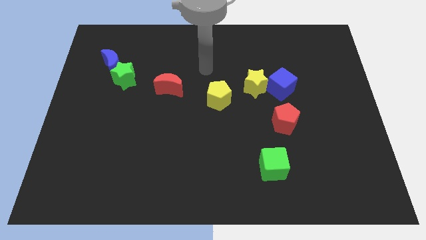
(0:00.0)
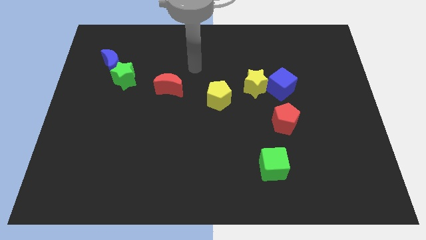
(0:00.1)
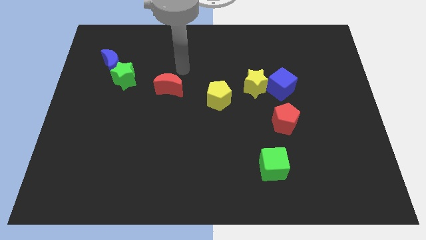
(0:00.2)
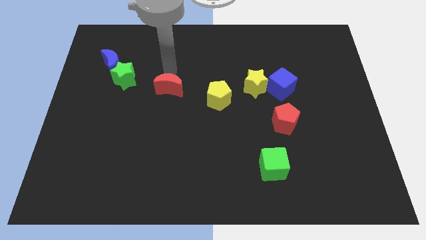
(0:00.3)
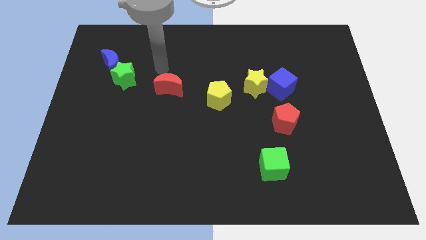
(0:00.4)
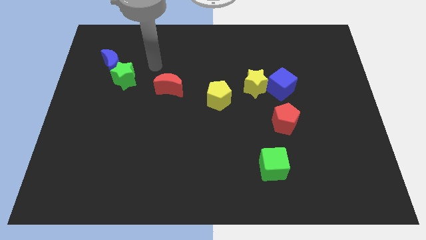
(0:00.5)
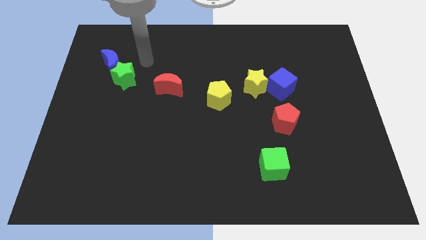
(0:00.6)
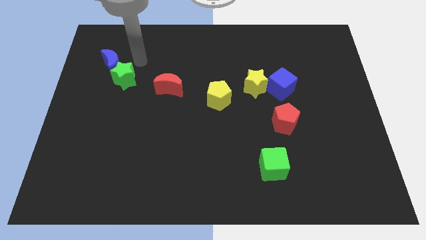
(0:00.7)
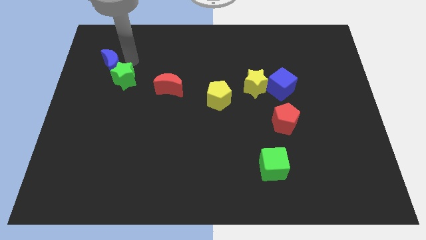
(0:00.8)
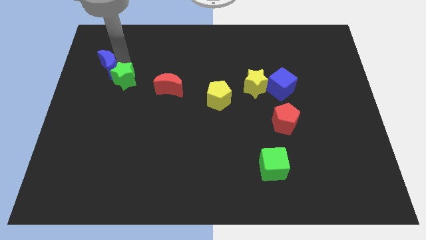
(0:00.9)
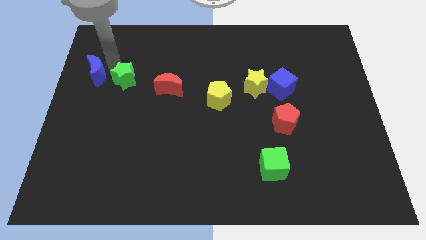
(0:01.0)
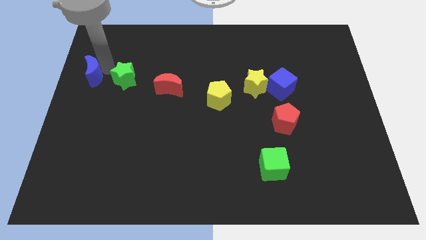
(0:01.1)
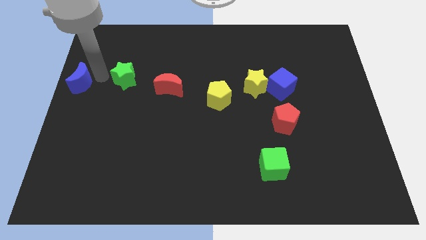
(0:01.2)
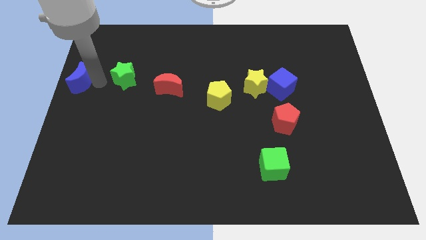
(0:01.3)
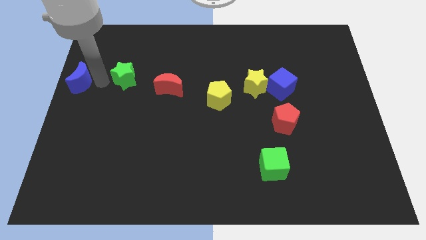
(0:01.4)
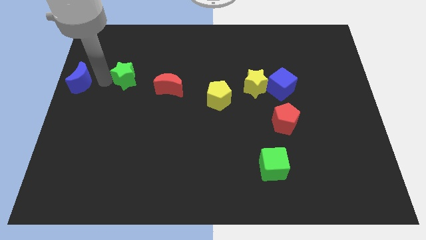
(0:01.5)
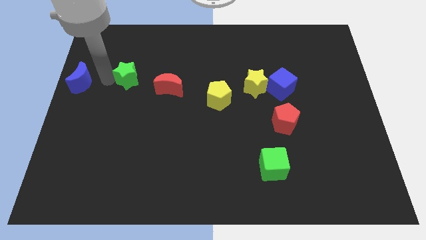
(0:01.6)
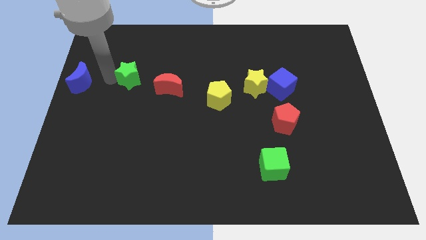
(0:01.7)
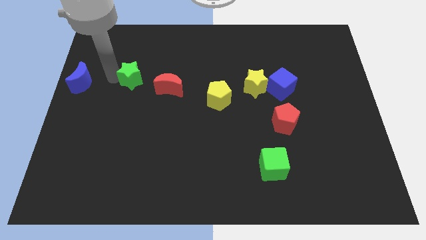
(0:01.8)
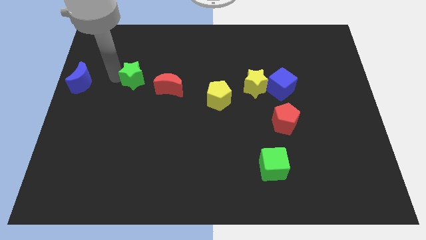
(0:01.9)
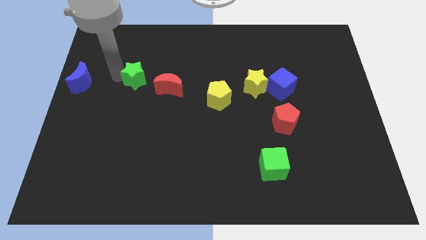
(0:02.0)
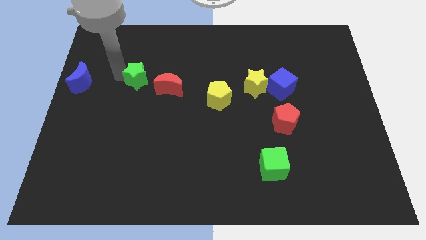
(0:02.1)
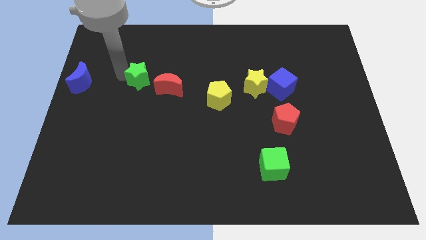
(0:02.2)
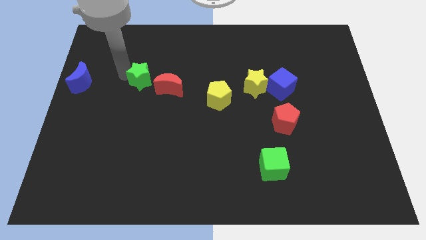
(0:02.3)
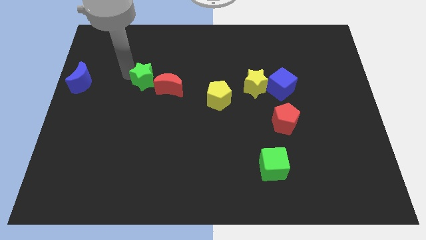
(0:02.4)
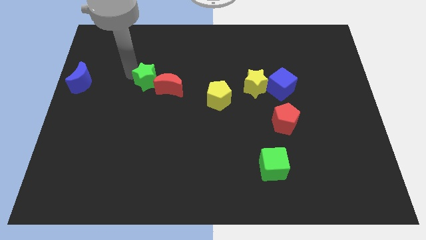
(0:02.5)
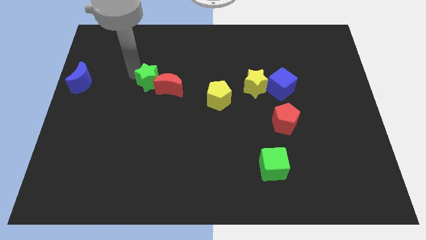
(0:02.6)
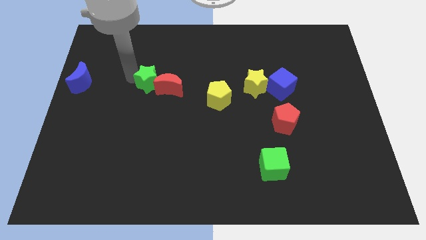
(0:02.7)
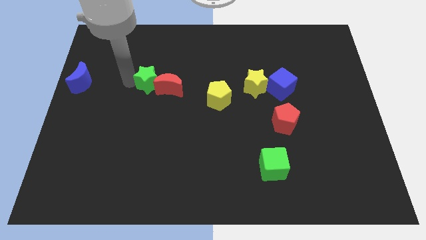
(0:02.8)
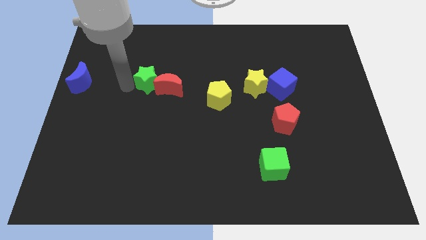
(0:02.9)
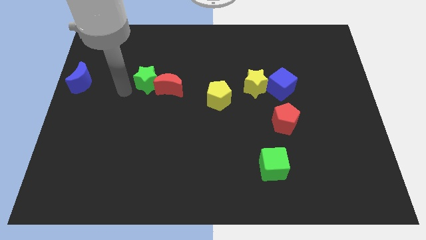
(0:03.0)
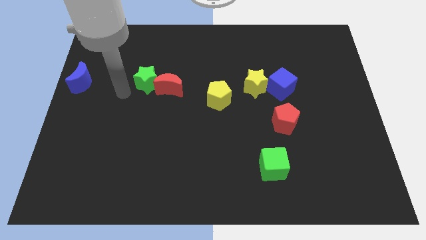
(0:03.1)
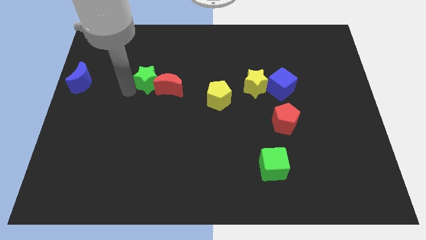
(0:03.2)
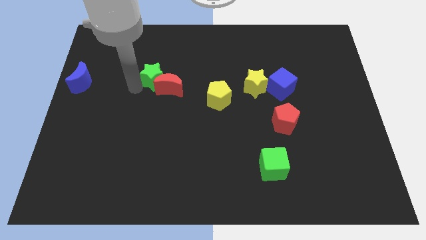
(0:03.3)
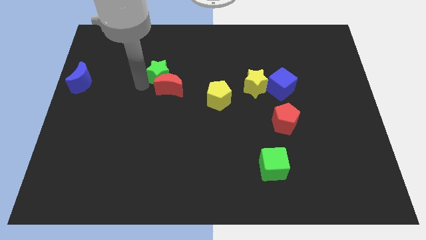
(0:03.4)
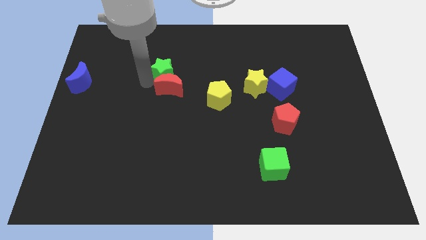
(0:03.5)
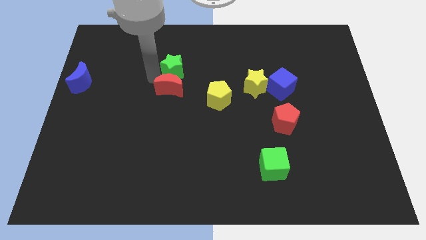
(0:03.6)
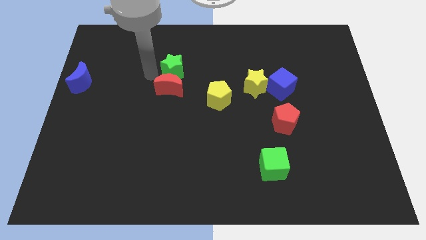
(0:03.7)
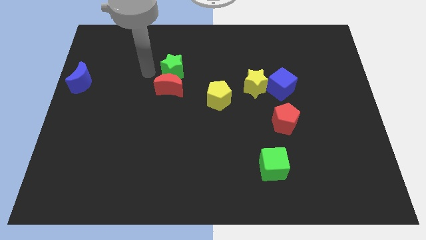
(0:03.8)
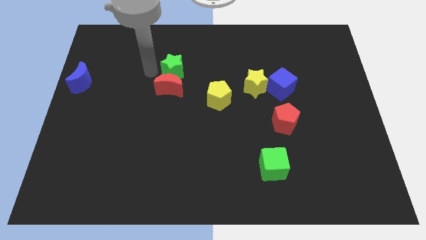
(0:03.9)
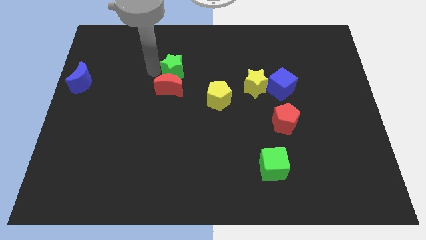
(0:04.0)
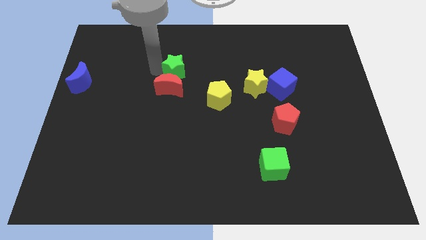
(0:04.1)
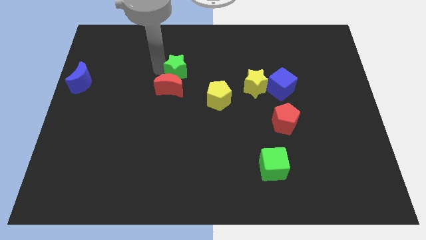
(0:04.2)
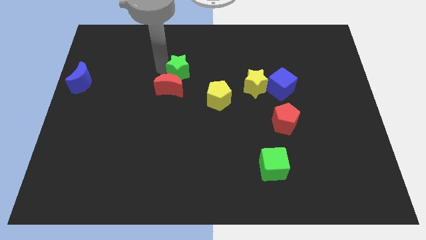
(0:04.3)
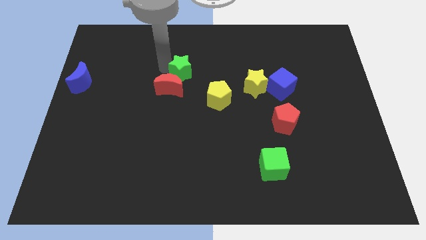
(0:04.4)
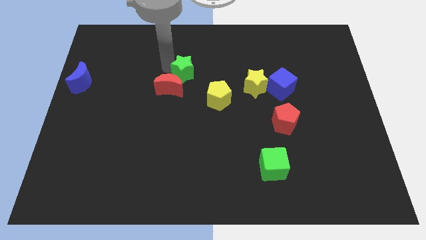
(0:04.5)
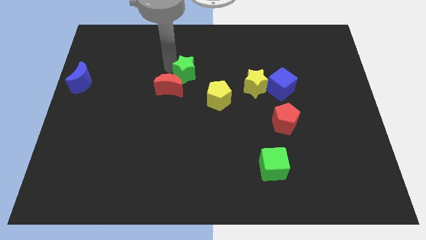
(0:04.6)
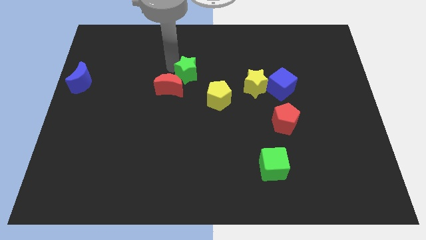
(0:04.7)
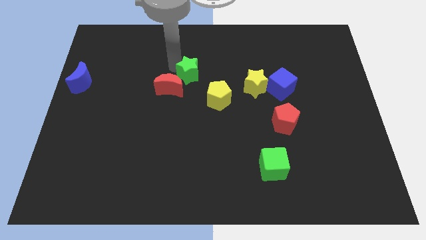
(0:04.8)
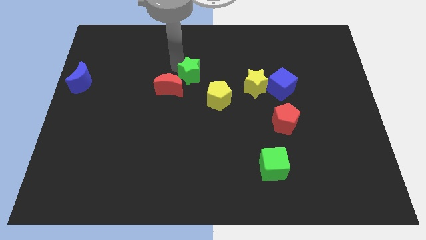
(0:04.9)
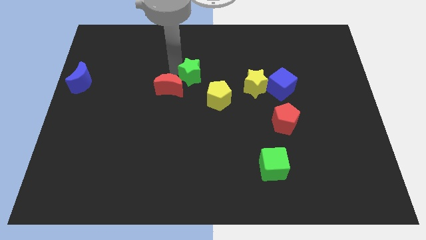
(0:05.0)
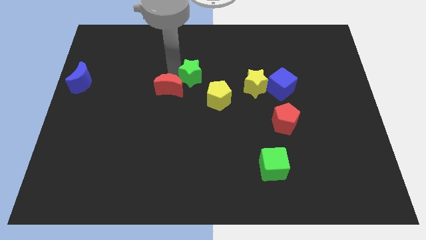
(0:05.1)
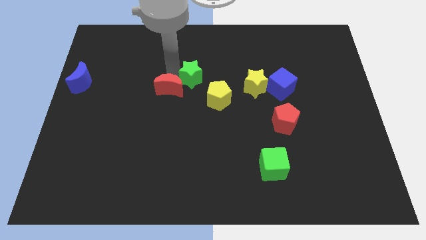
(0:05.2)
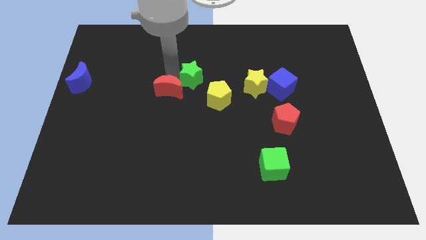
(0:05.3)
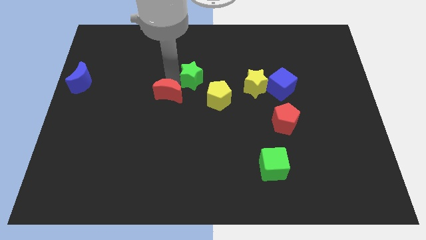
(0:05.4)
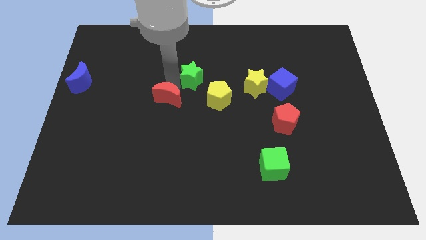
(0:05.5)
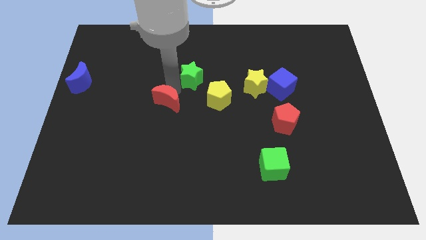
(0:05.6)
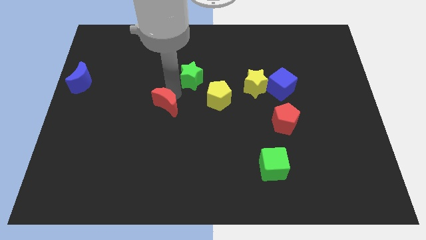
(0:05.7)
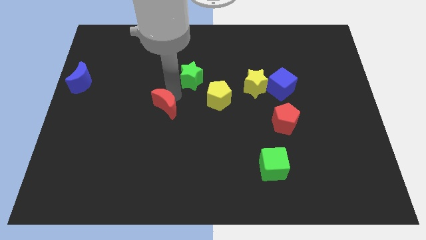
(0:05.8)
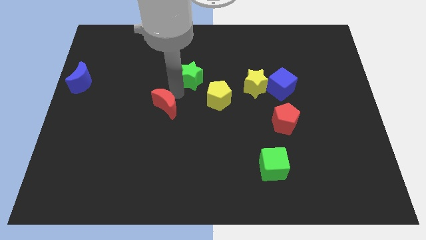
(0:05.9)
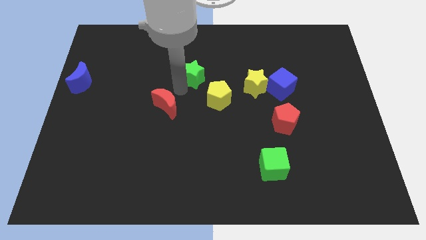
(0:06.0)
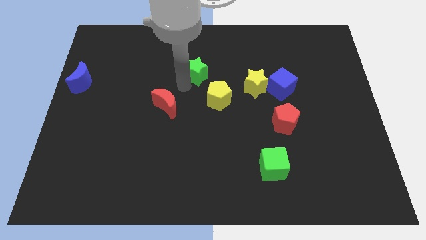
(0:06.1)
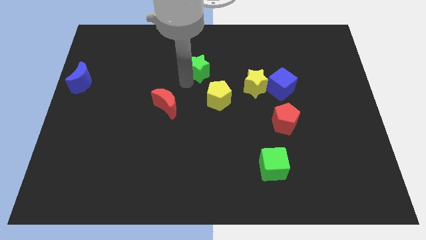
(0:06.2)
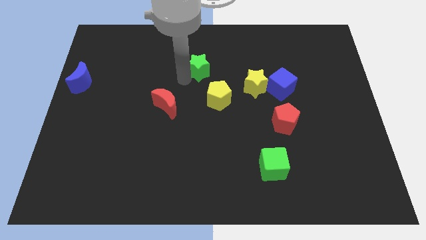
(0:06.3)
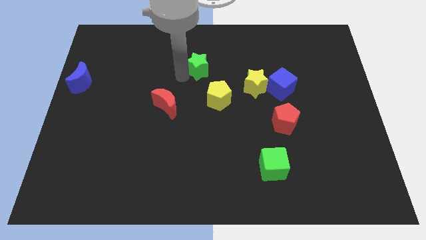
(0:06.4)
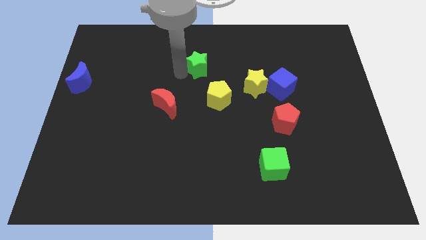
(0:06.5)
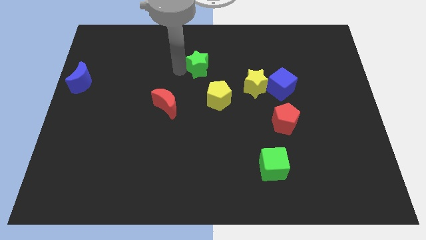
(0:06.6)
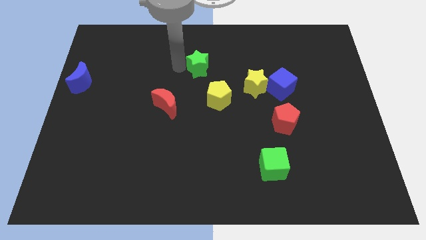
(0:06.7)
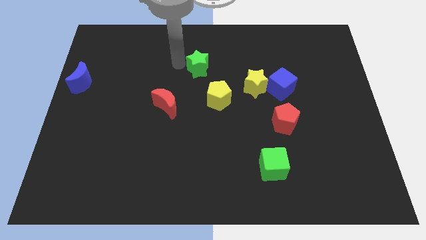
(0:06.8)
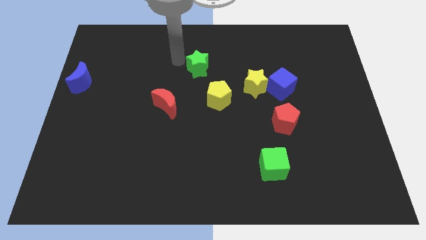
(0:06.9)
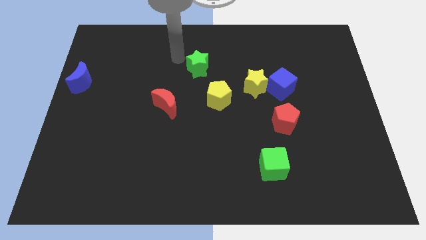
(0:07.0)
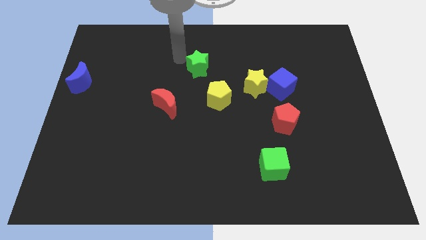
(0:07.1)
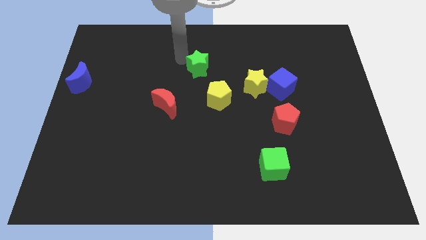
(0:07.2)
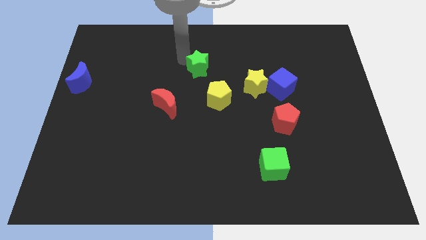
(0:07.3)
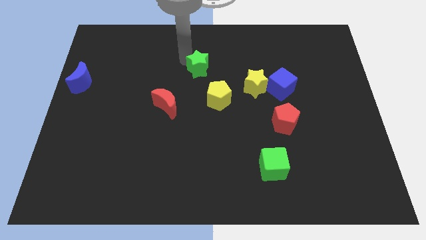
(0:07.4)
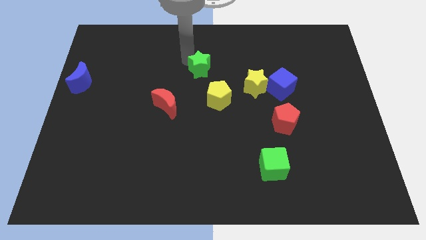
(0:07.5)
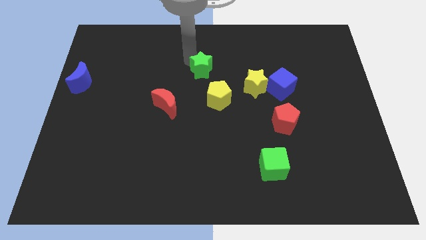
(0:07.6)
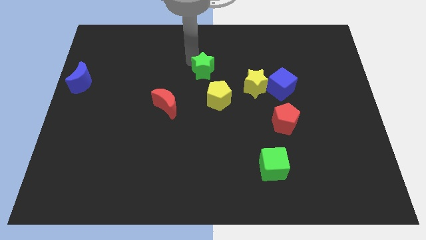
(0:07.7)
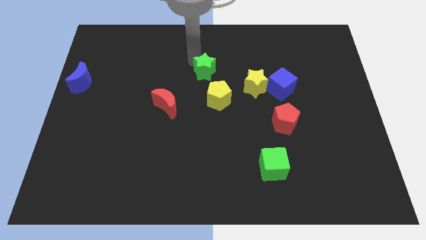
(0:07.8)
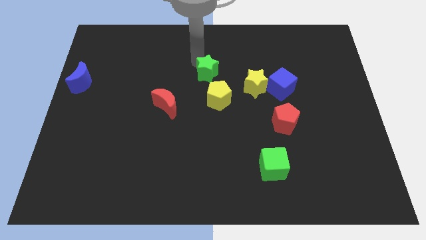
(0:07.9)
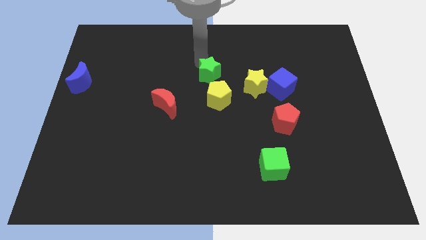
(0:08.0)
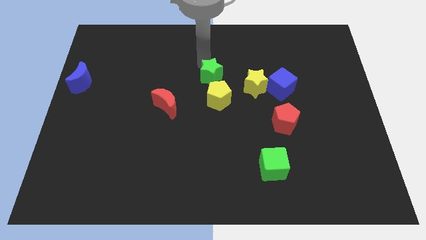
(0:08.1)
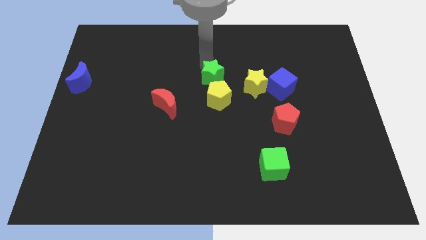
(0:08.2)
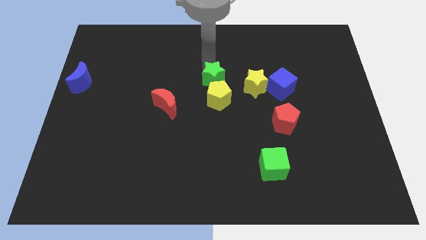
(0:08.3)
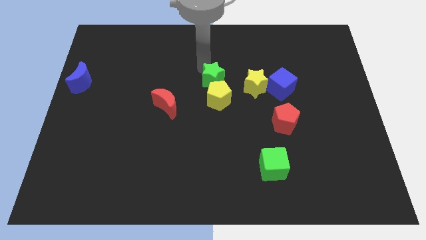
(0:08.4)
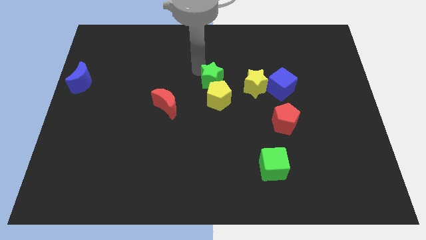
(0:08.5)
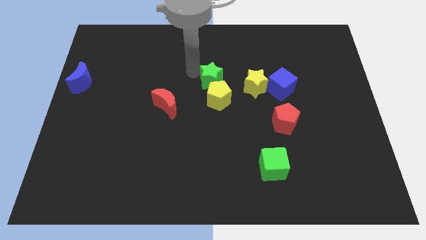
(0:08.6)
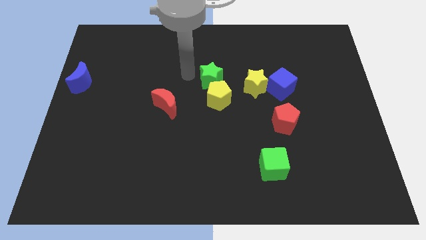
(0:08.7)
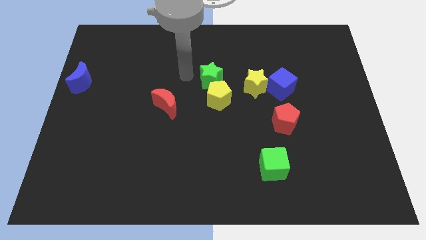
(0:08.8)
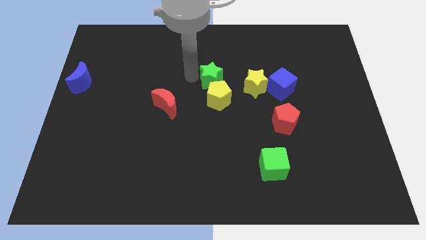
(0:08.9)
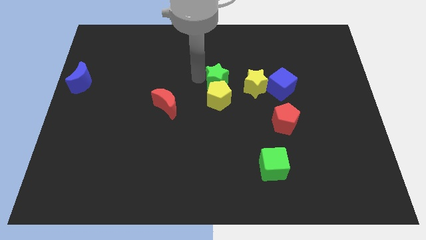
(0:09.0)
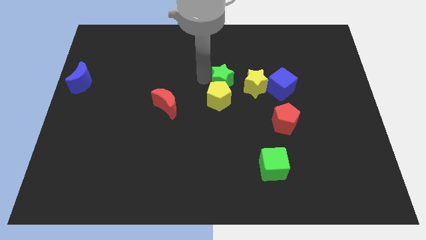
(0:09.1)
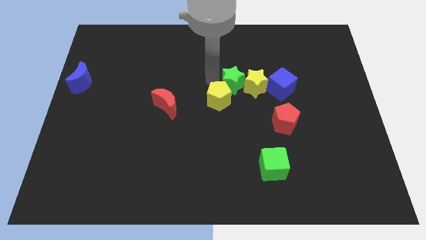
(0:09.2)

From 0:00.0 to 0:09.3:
slide the green star next to the yellow star
